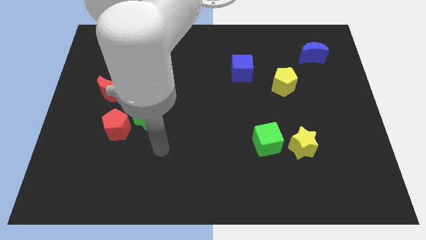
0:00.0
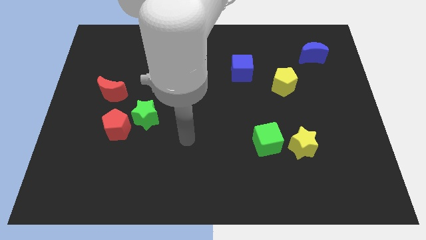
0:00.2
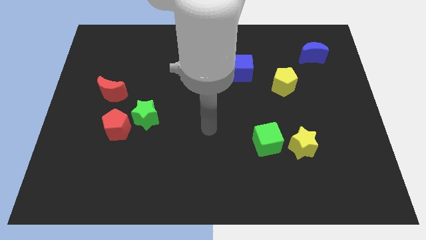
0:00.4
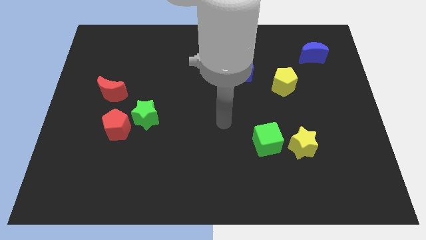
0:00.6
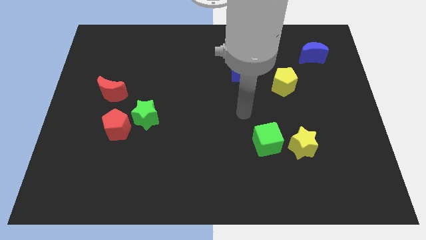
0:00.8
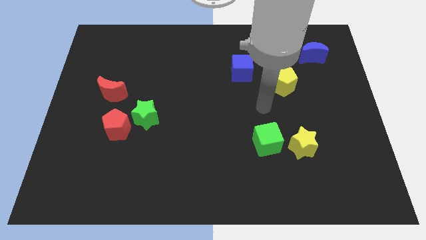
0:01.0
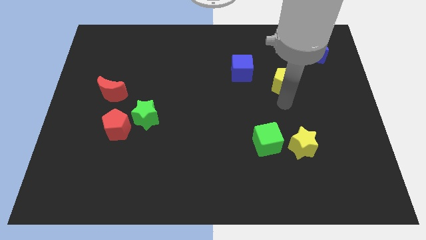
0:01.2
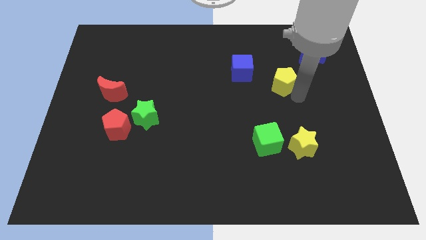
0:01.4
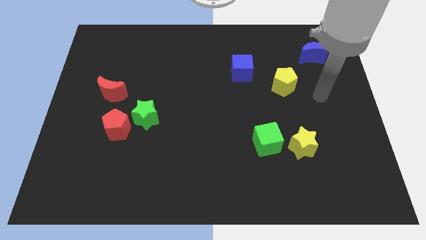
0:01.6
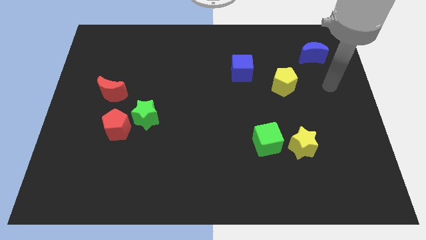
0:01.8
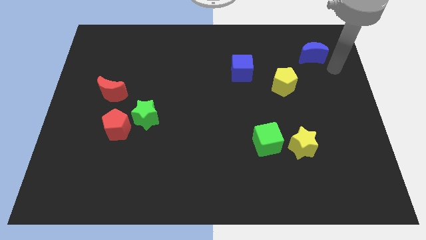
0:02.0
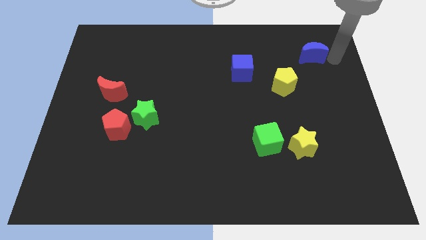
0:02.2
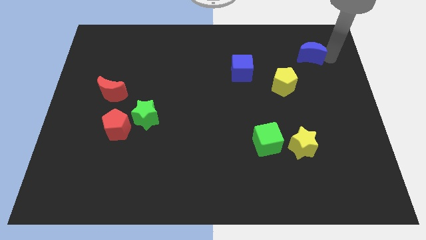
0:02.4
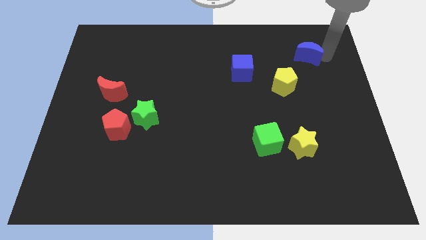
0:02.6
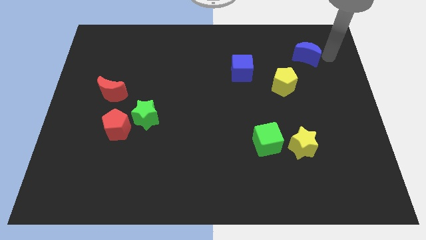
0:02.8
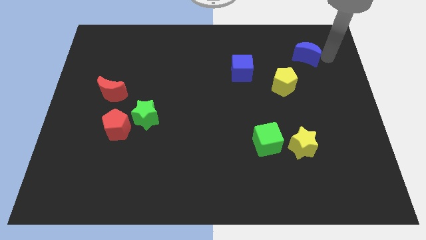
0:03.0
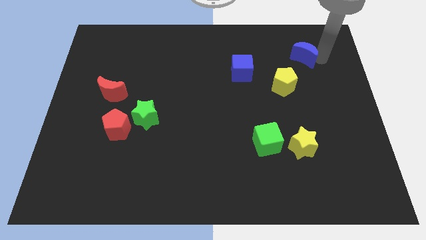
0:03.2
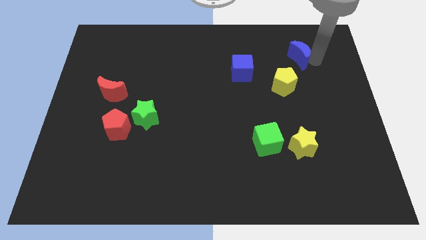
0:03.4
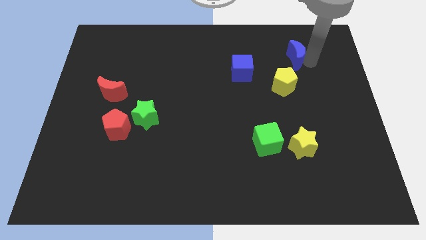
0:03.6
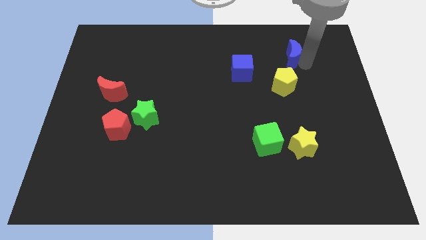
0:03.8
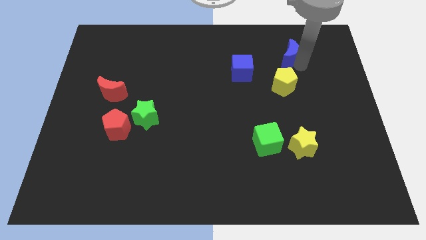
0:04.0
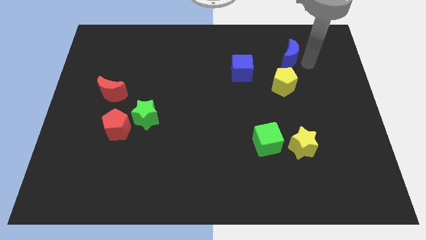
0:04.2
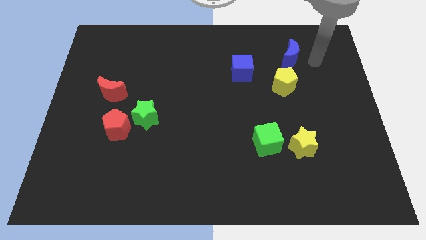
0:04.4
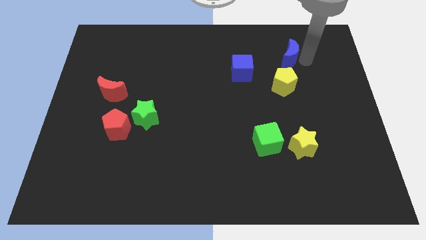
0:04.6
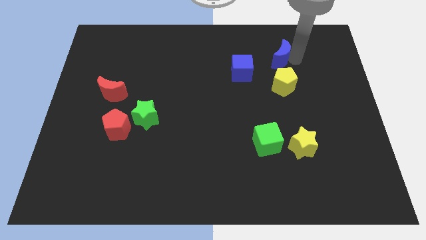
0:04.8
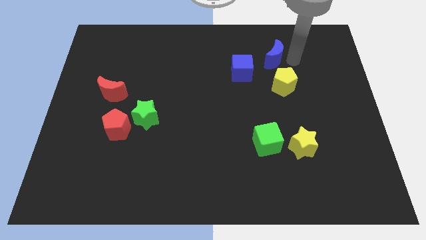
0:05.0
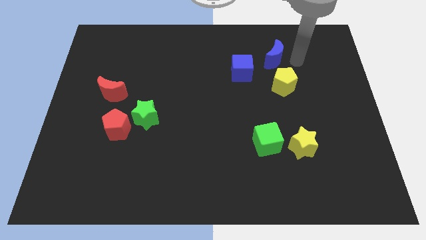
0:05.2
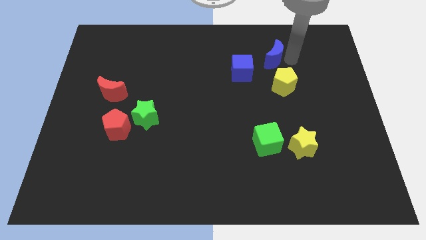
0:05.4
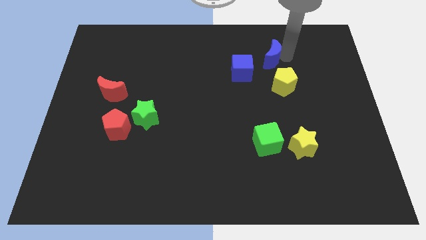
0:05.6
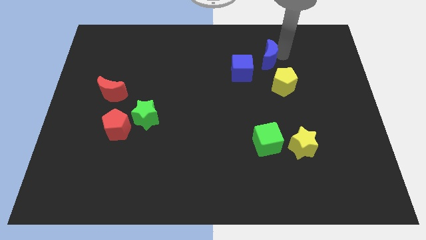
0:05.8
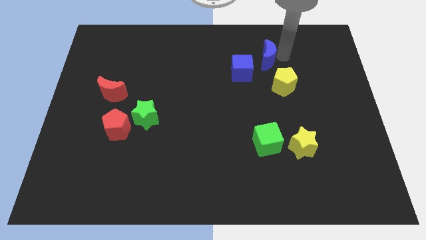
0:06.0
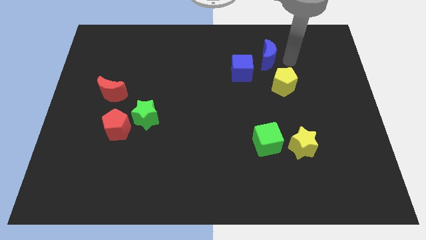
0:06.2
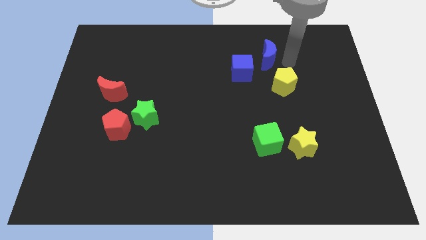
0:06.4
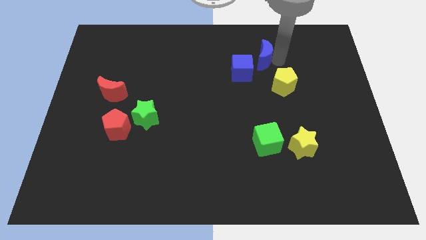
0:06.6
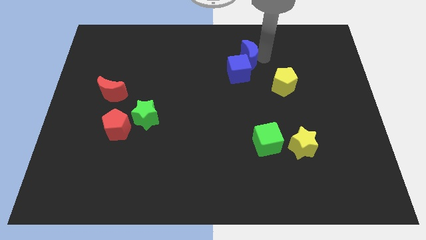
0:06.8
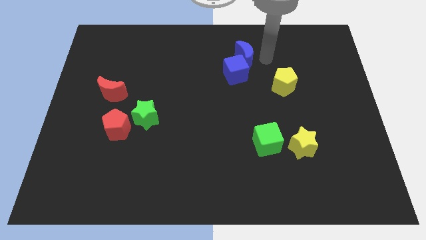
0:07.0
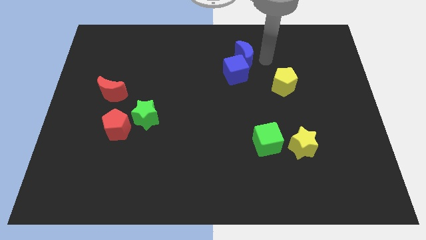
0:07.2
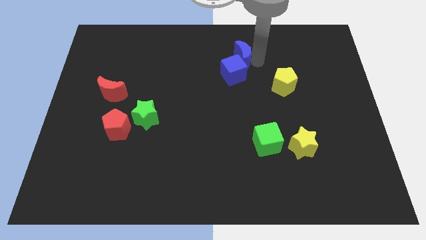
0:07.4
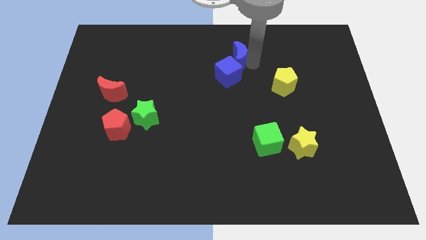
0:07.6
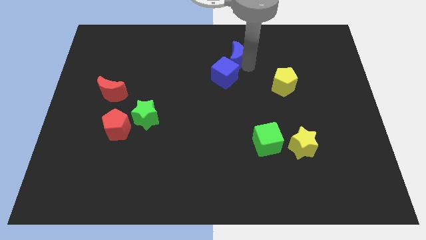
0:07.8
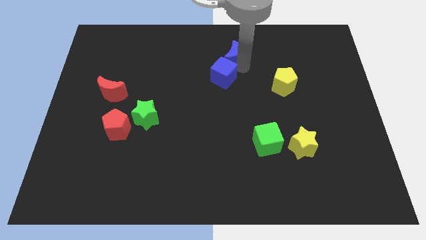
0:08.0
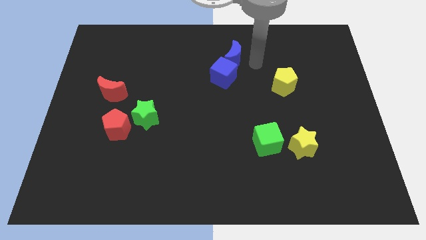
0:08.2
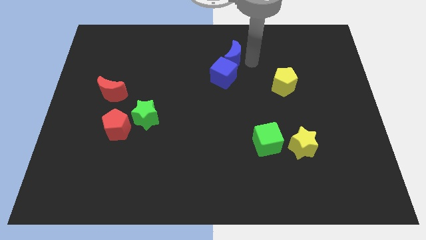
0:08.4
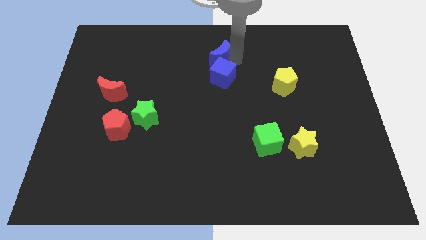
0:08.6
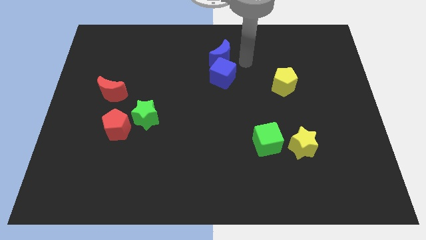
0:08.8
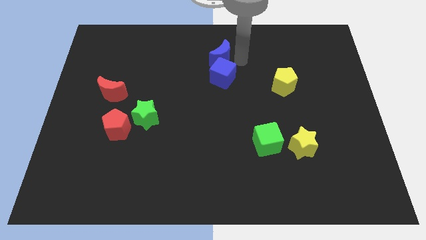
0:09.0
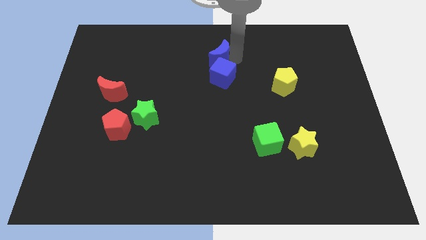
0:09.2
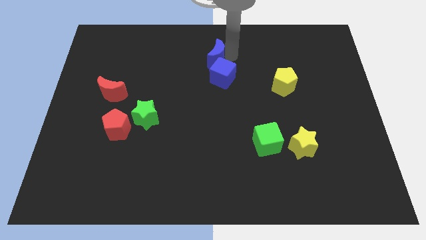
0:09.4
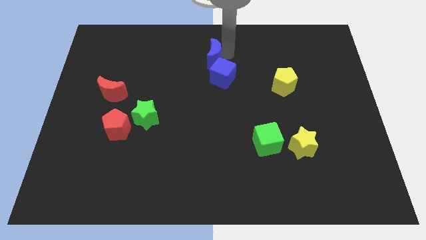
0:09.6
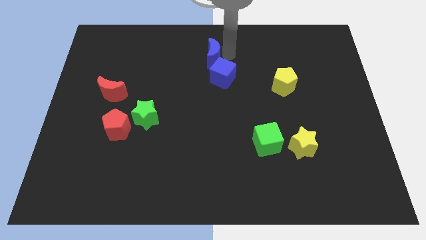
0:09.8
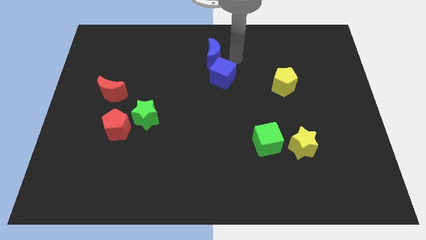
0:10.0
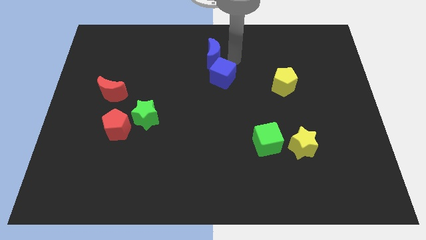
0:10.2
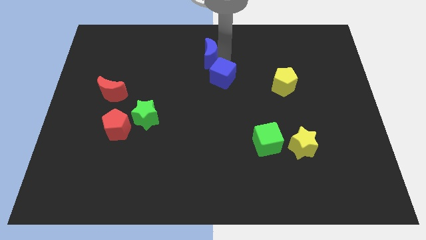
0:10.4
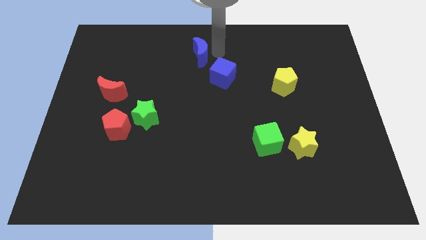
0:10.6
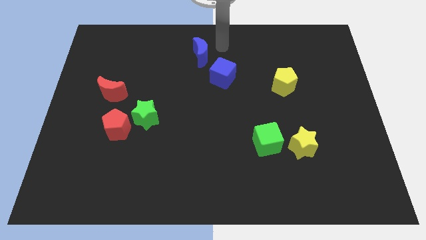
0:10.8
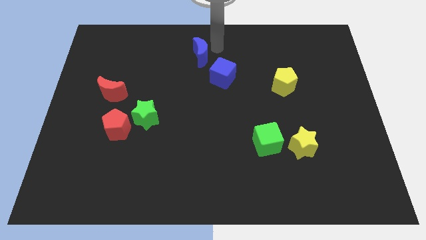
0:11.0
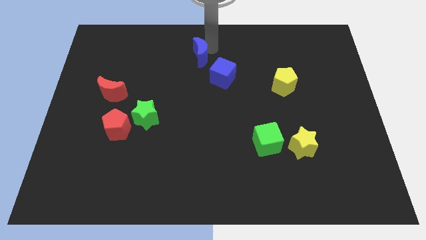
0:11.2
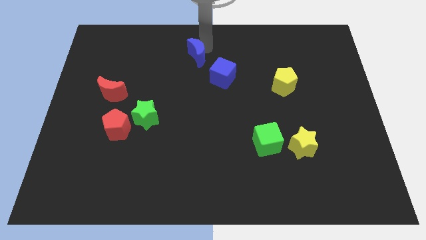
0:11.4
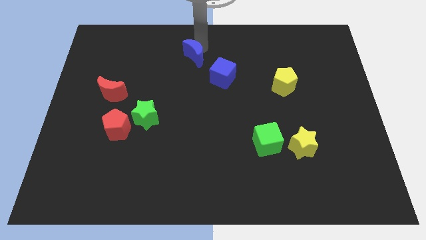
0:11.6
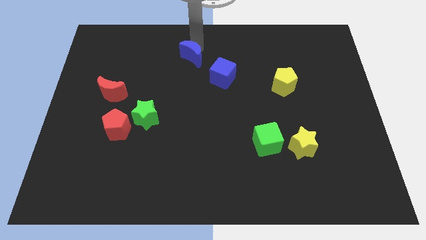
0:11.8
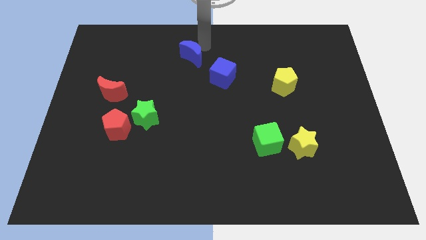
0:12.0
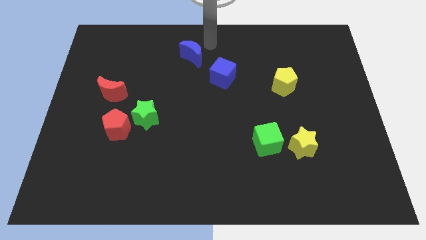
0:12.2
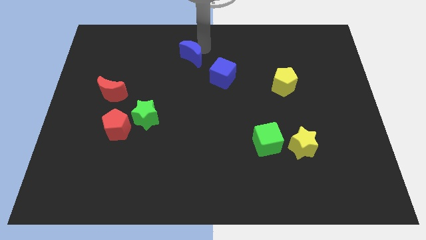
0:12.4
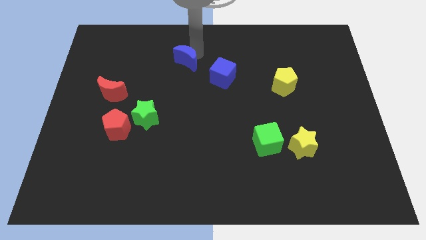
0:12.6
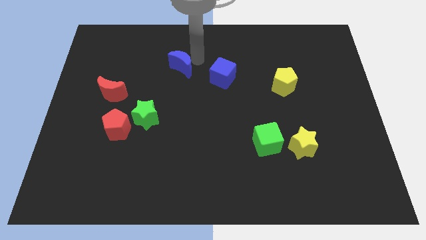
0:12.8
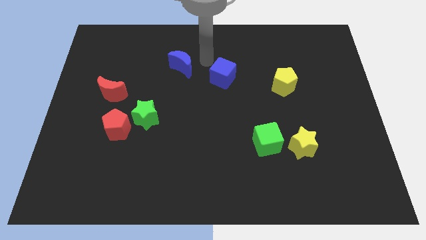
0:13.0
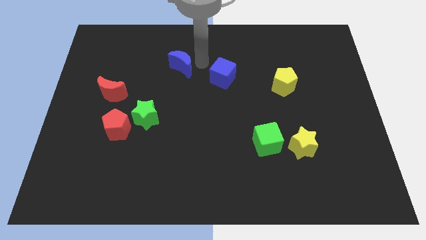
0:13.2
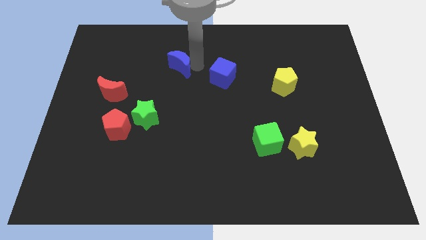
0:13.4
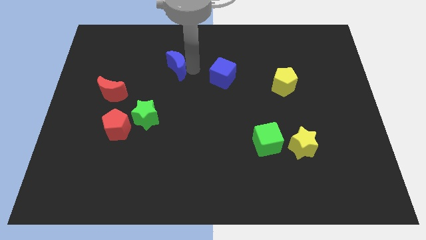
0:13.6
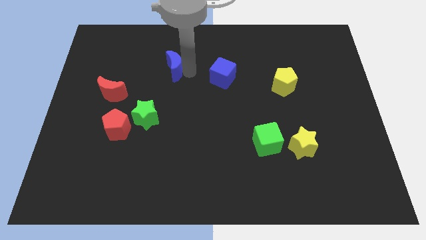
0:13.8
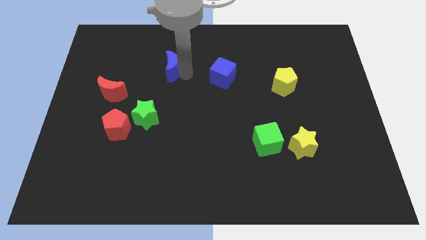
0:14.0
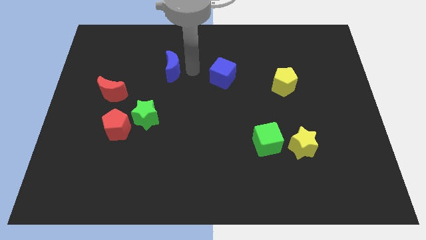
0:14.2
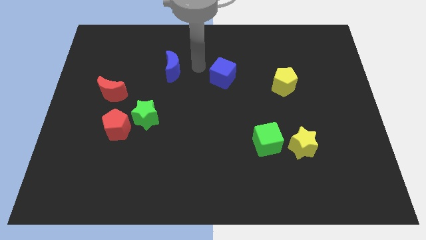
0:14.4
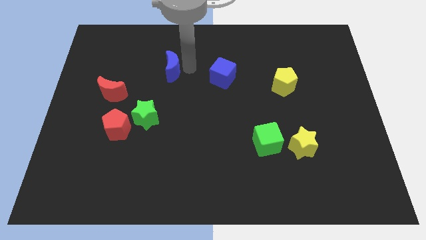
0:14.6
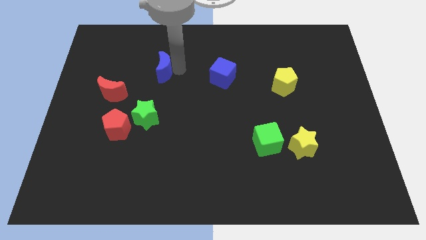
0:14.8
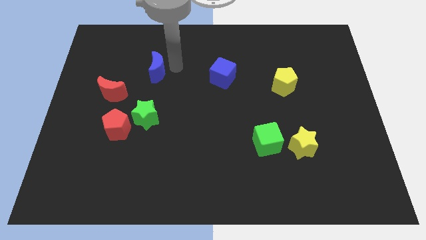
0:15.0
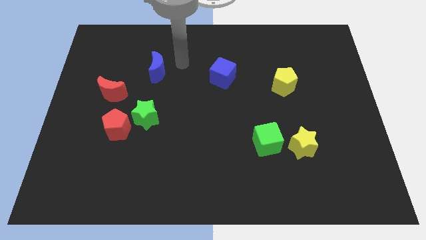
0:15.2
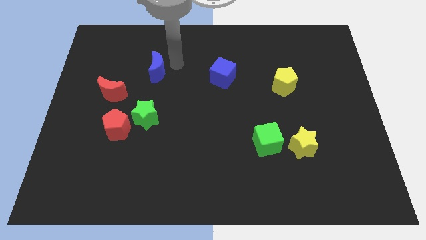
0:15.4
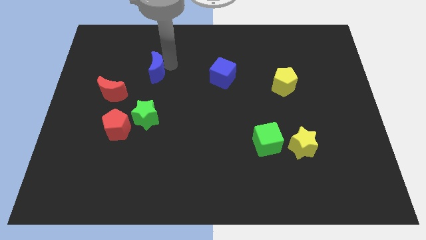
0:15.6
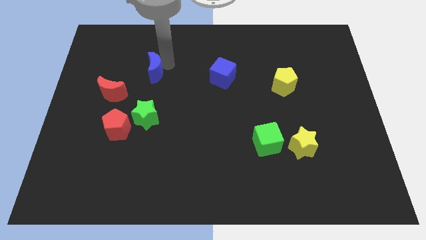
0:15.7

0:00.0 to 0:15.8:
push the blue moon to the top right of the red moon
